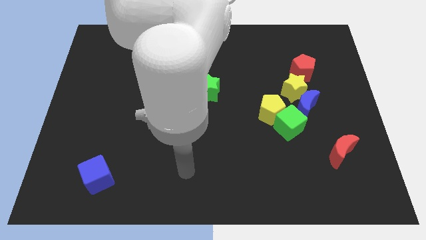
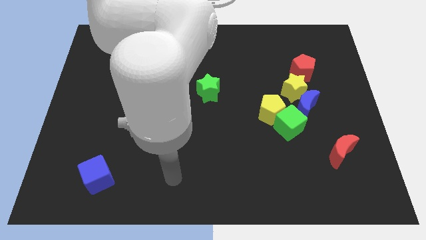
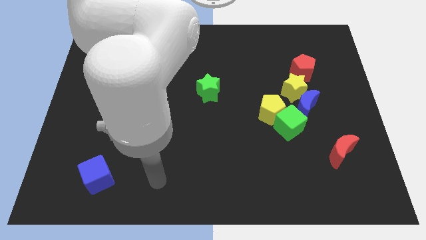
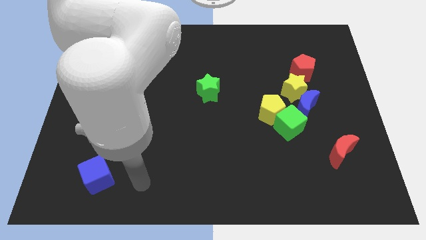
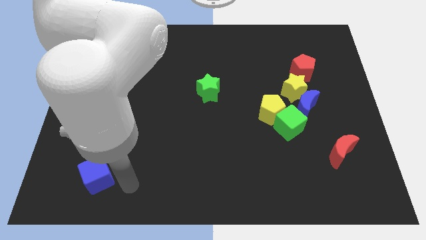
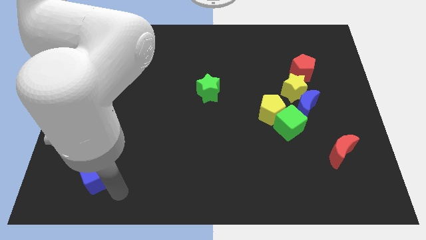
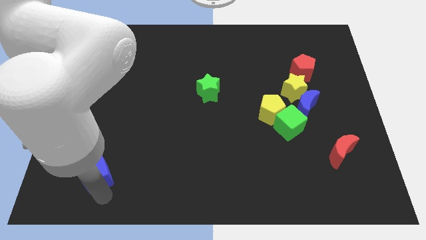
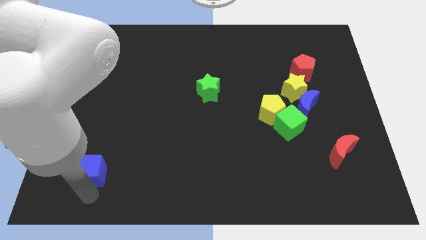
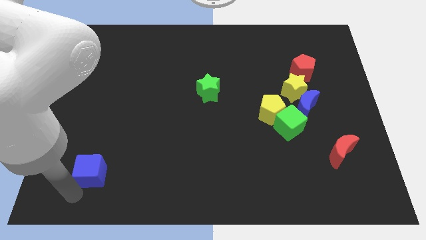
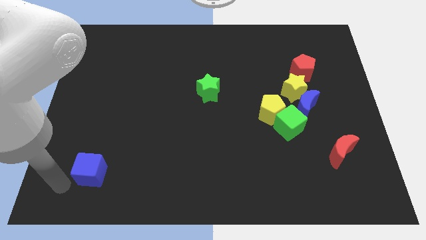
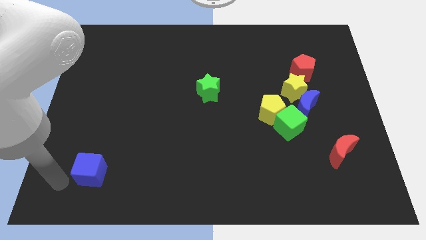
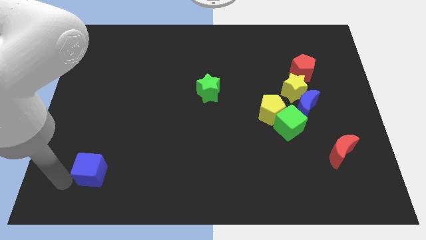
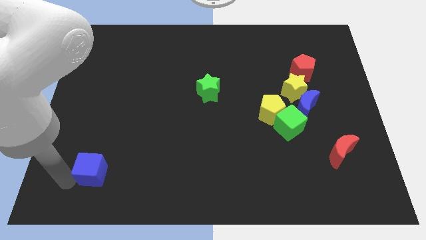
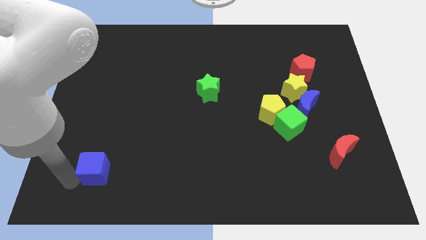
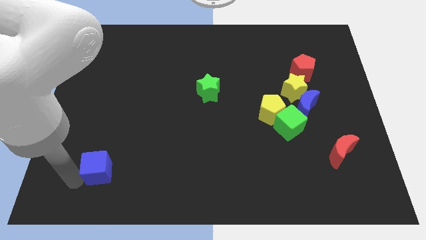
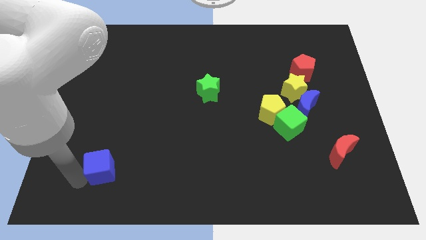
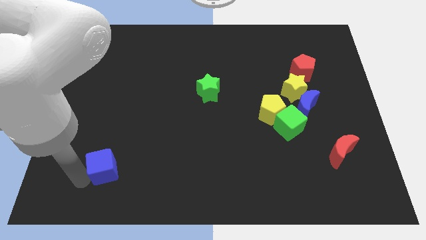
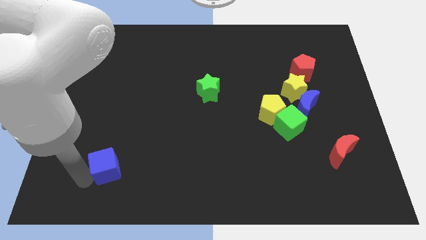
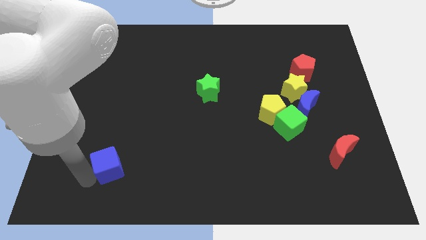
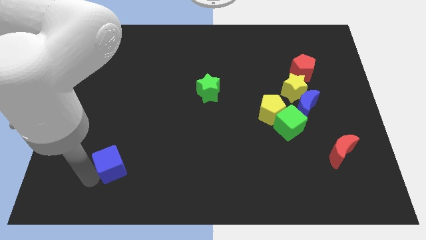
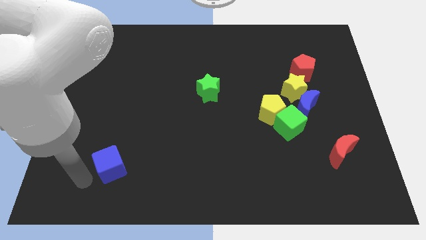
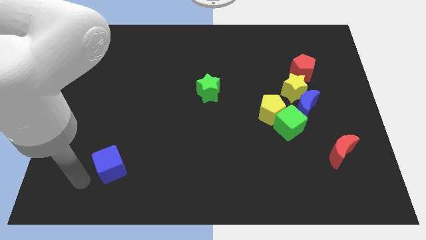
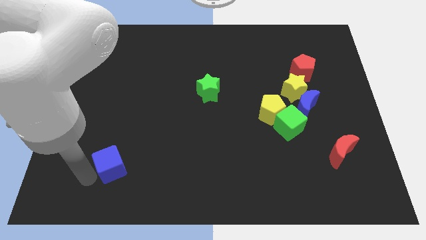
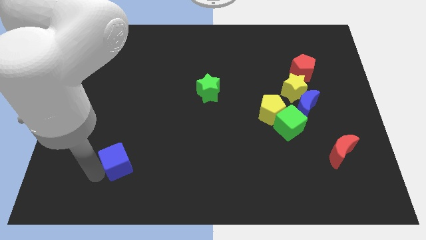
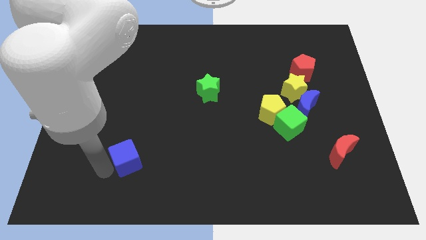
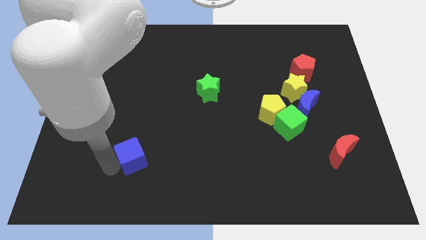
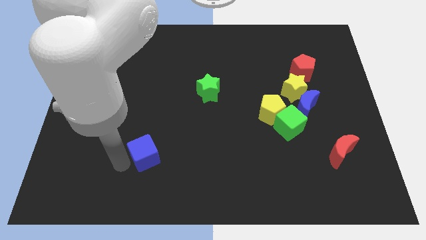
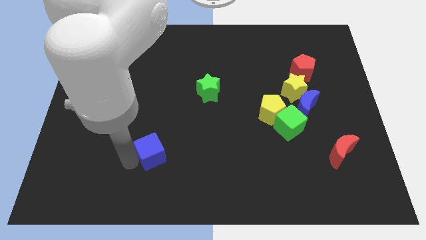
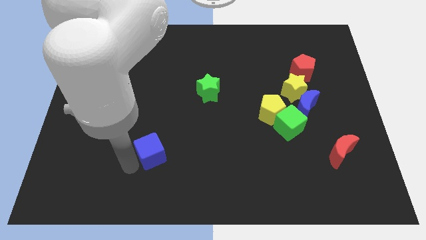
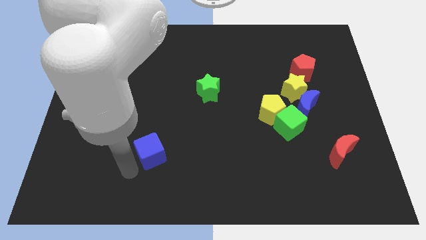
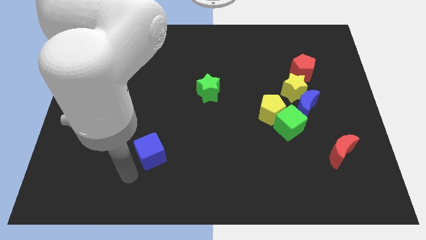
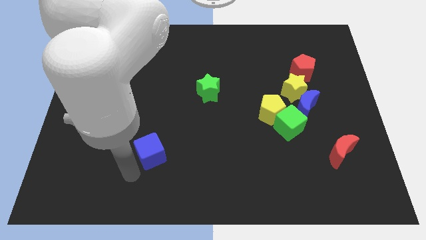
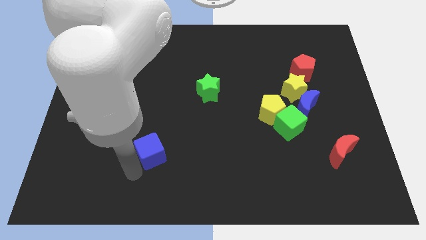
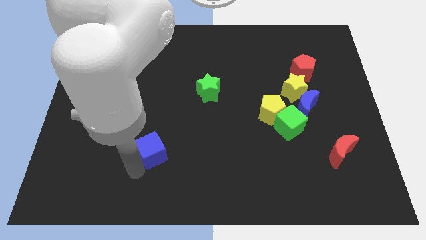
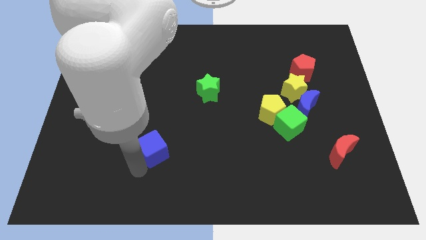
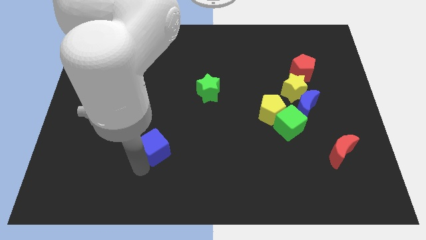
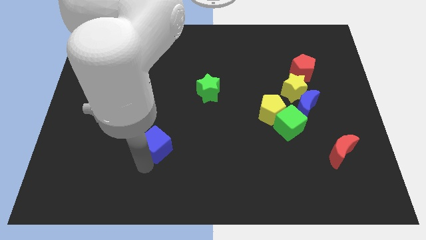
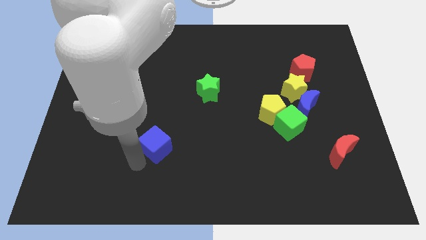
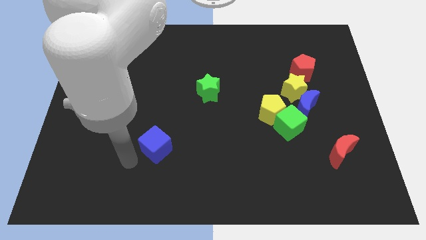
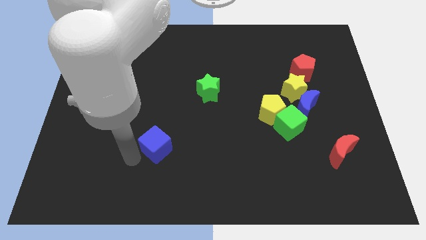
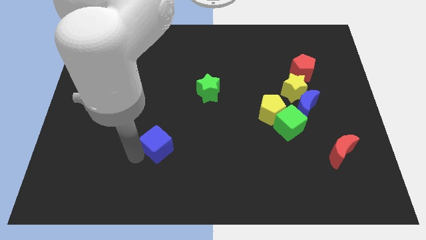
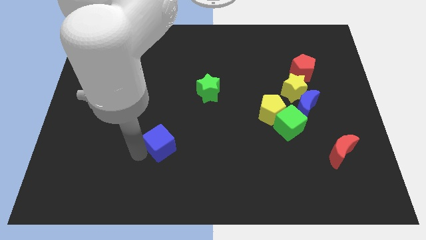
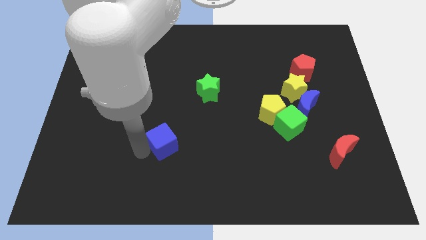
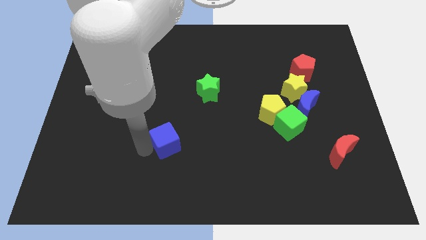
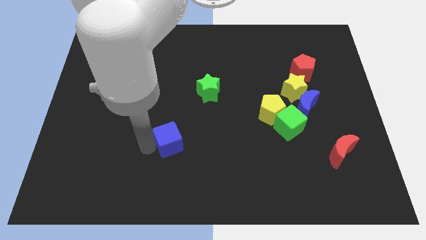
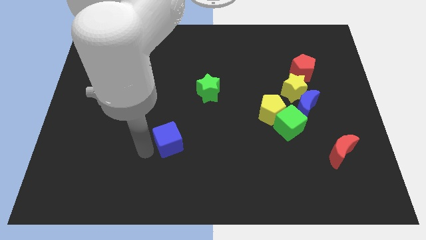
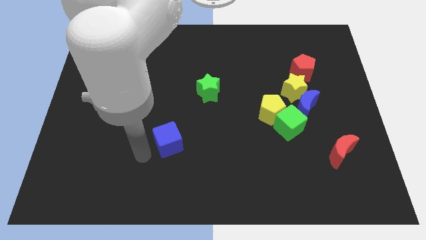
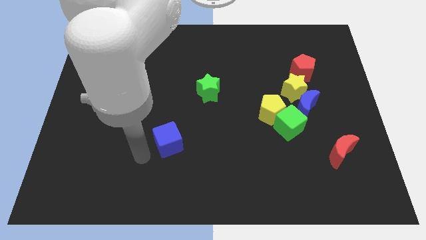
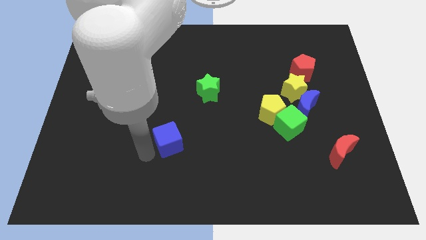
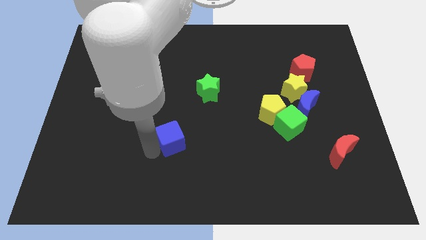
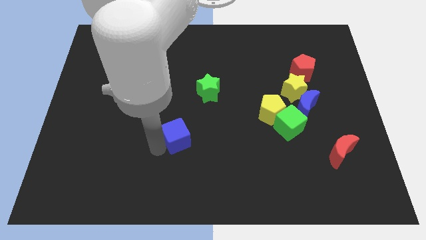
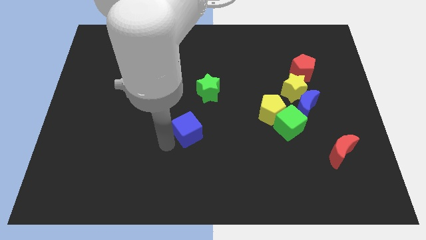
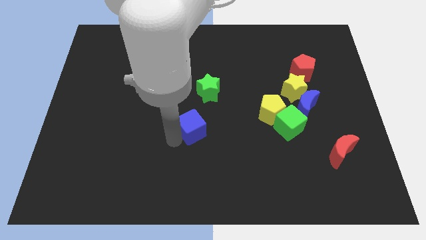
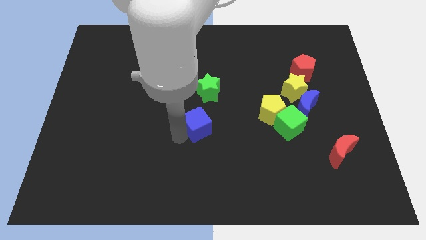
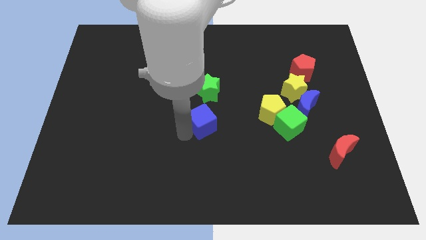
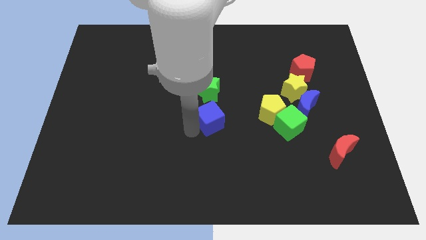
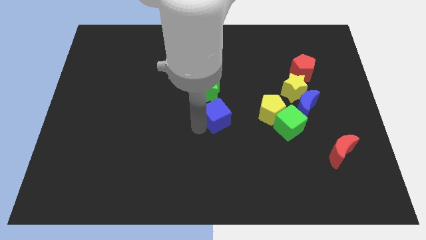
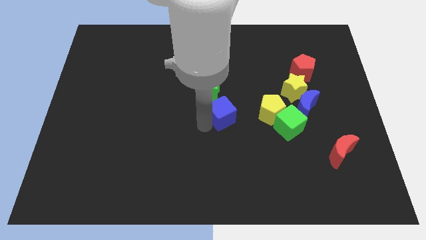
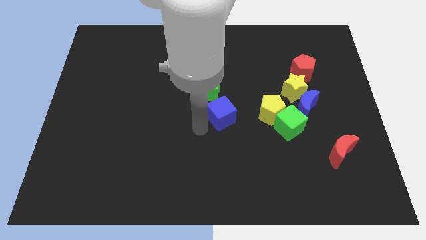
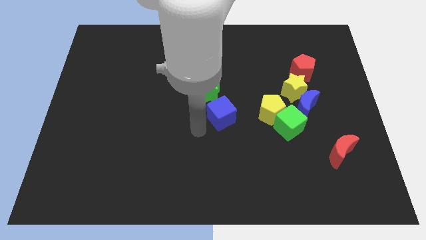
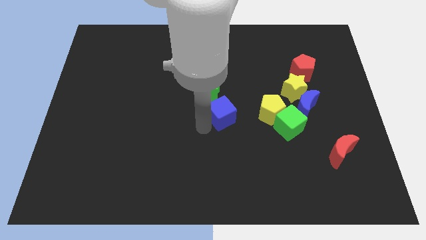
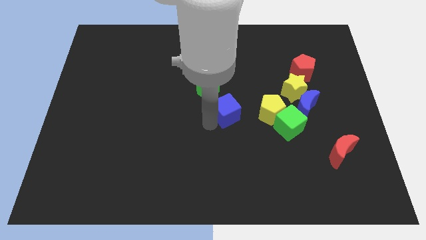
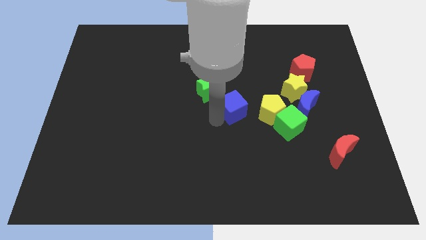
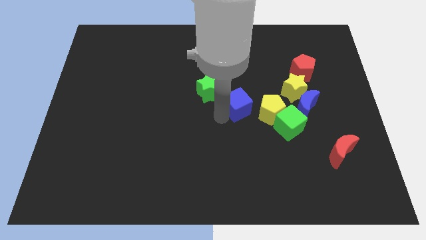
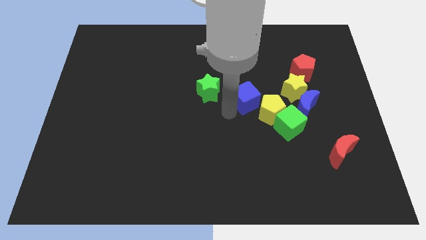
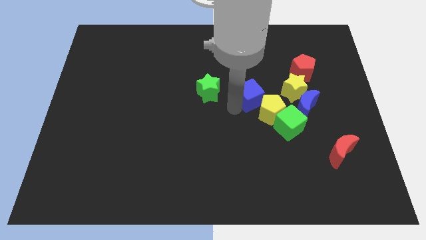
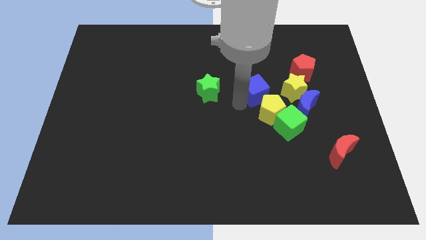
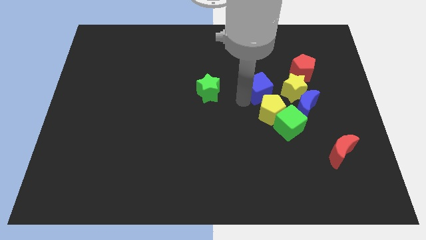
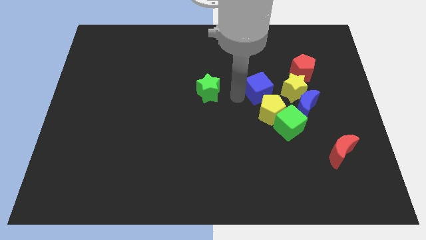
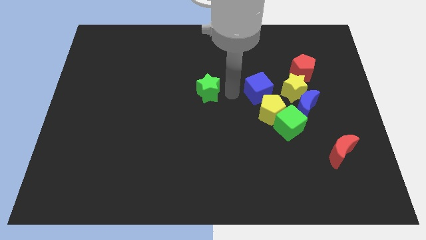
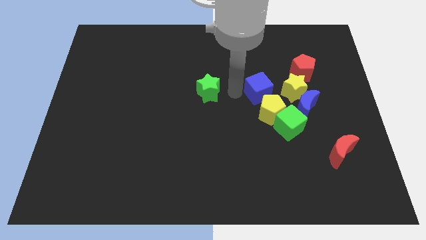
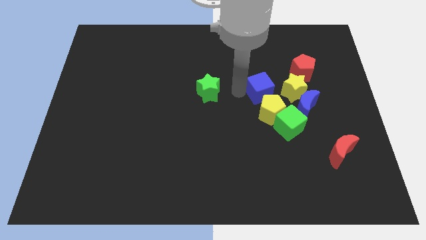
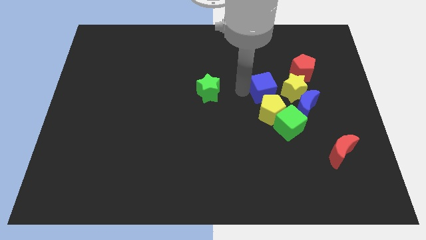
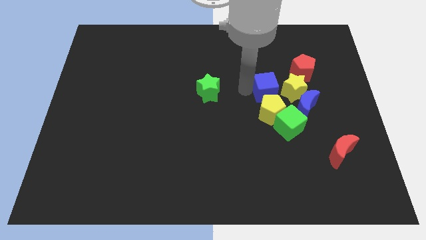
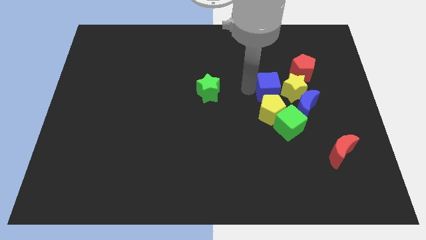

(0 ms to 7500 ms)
put the blue cube to the yellow star

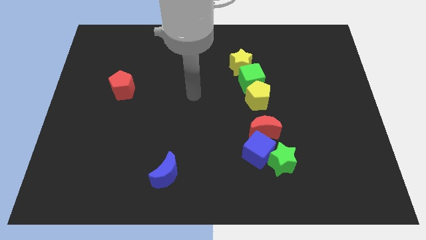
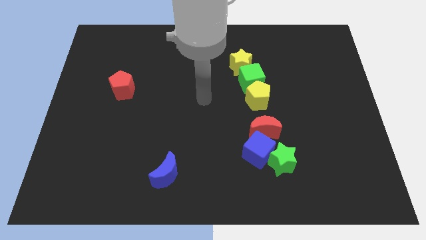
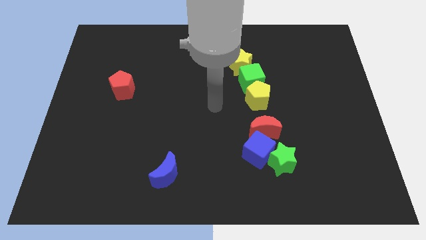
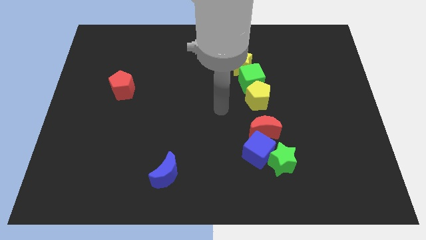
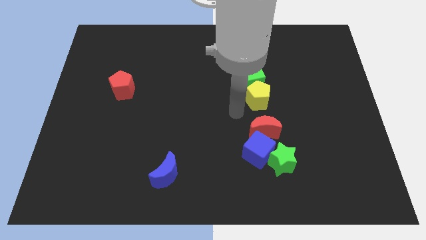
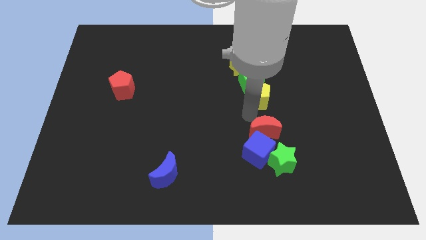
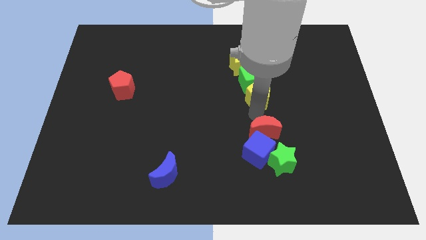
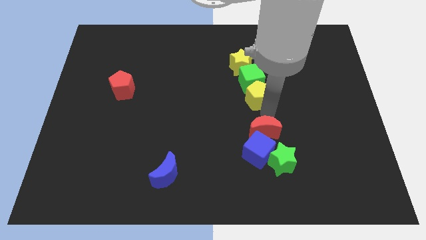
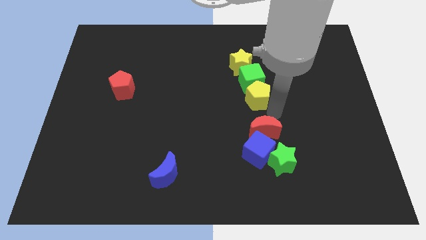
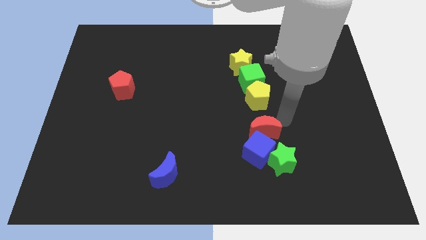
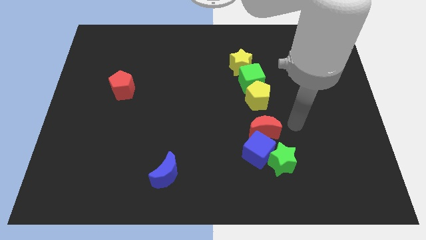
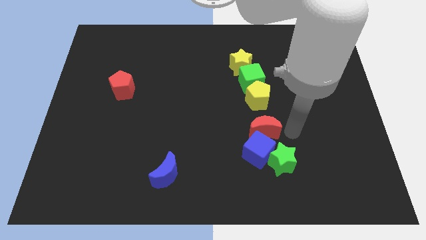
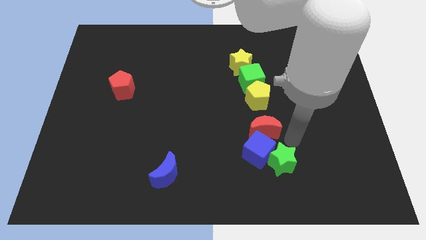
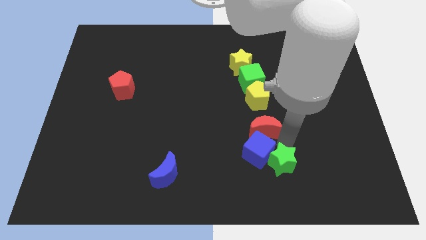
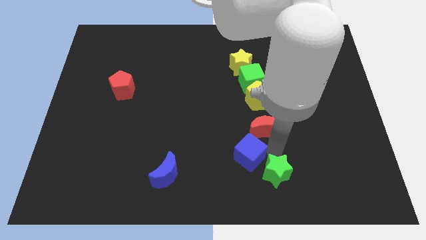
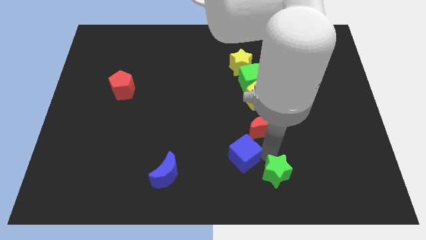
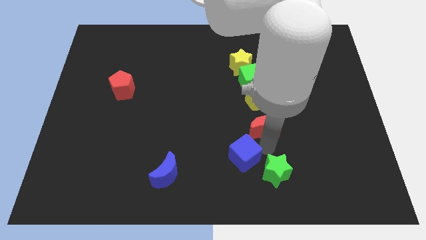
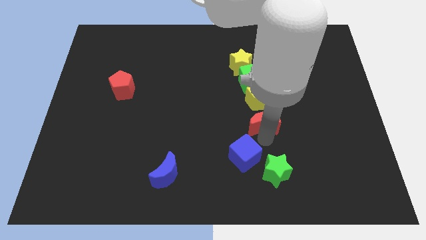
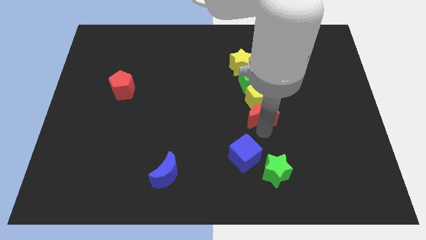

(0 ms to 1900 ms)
put the red moon close to the yellow pentagon
